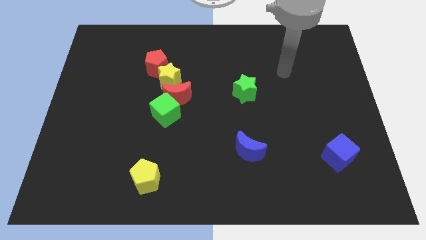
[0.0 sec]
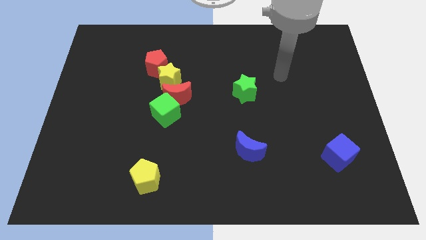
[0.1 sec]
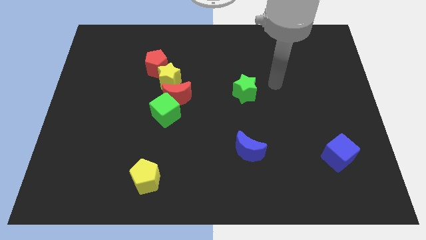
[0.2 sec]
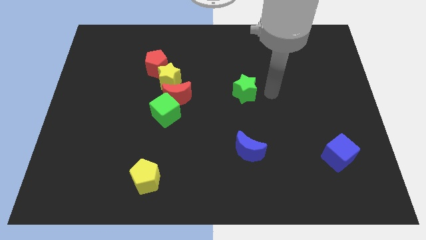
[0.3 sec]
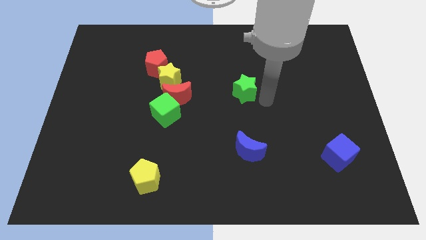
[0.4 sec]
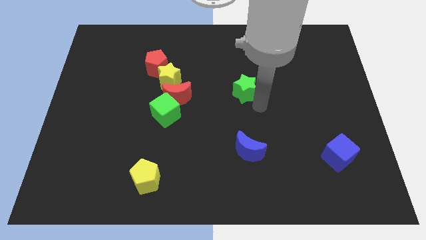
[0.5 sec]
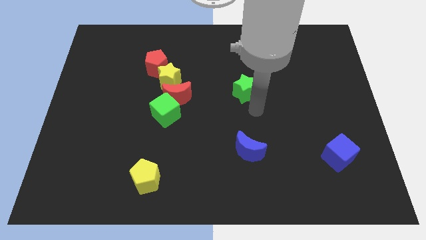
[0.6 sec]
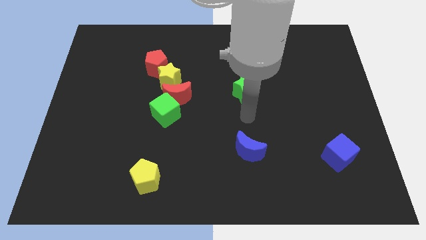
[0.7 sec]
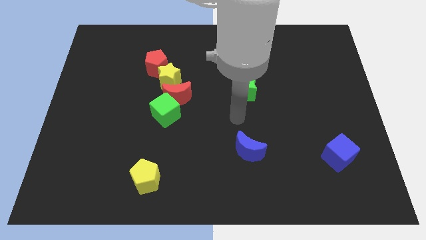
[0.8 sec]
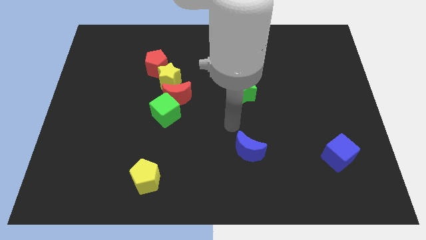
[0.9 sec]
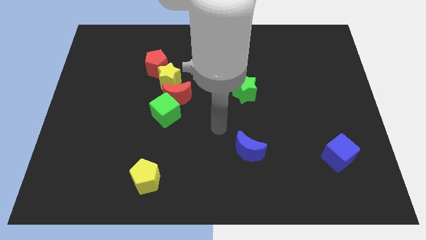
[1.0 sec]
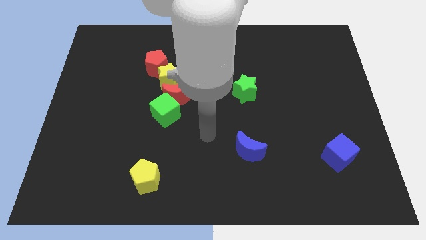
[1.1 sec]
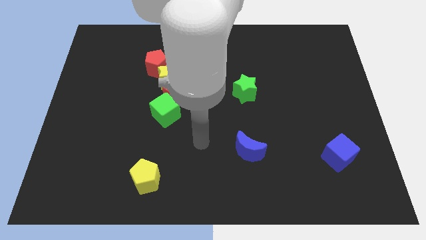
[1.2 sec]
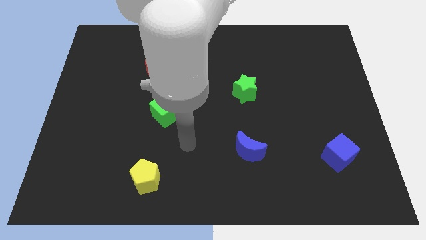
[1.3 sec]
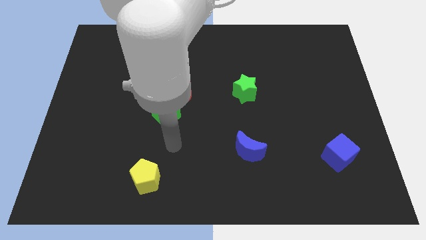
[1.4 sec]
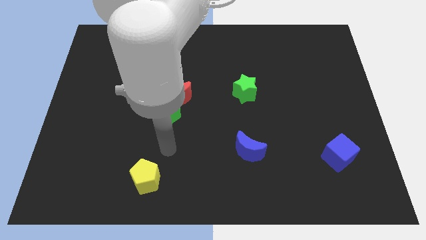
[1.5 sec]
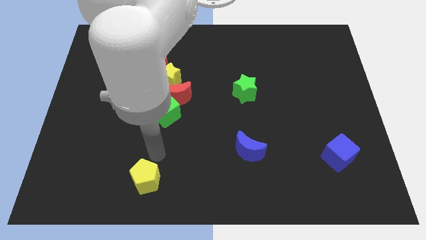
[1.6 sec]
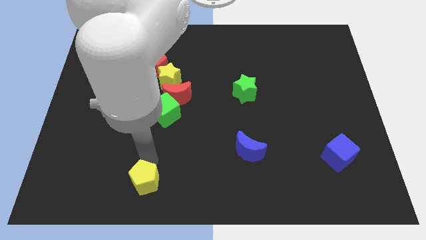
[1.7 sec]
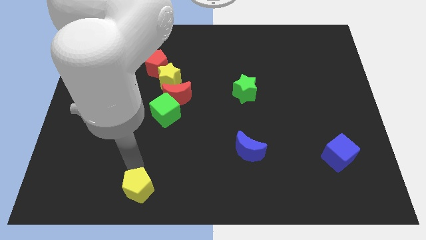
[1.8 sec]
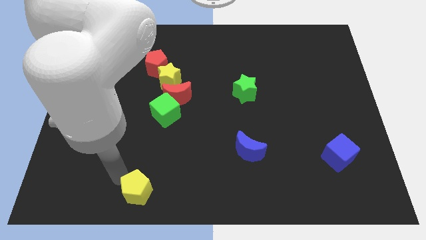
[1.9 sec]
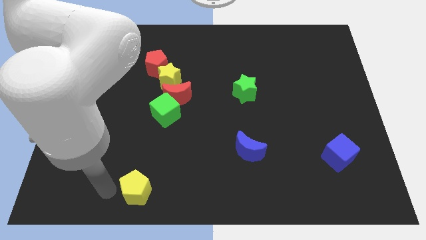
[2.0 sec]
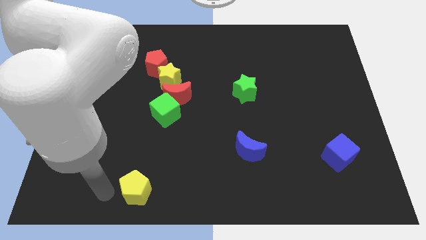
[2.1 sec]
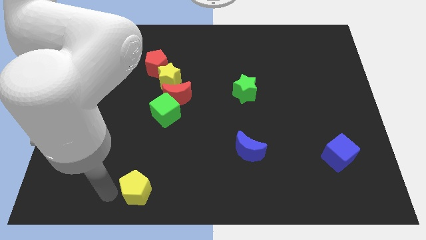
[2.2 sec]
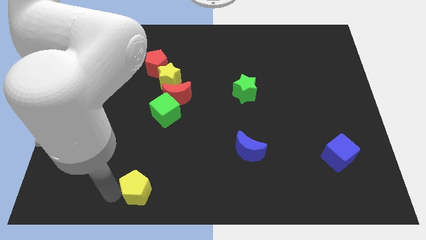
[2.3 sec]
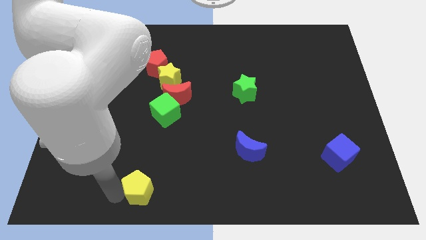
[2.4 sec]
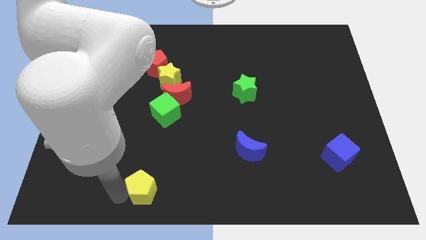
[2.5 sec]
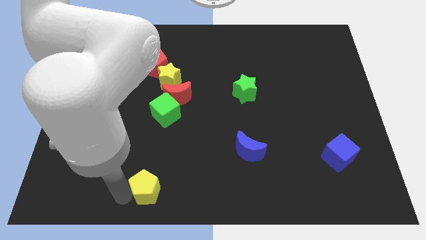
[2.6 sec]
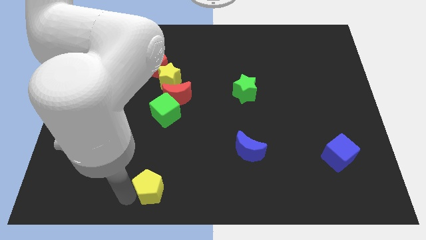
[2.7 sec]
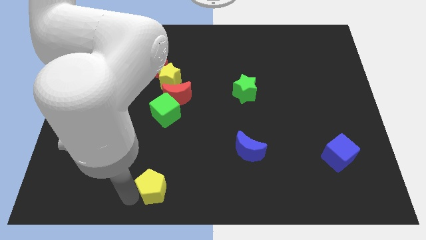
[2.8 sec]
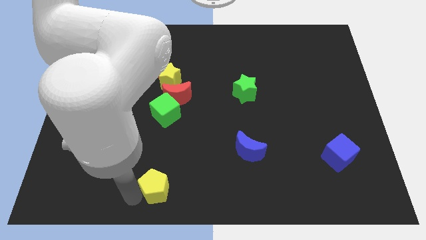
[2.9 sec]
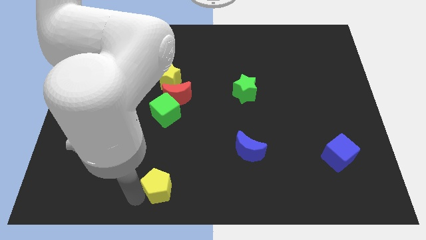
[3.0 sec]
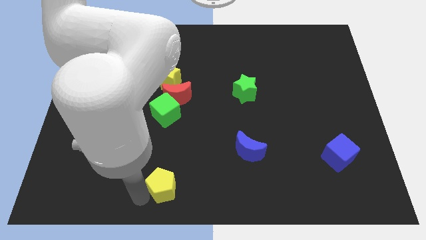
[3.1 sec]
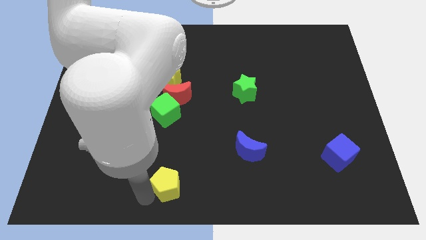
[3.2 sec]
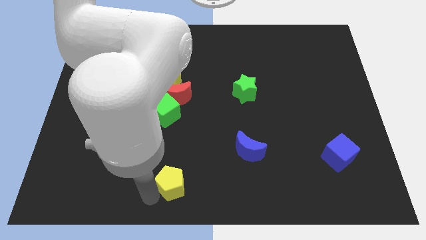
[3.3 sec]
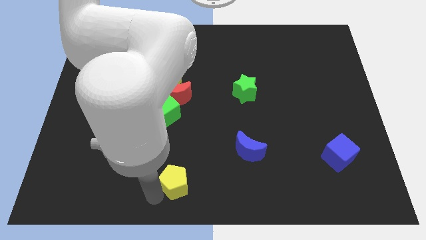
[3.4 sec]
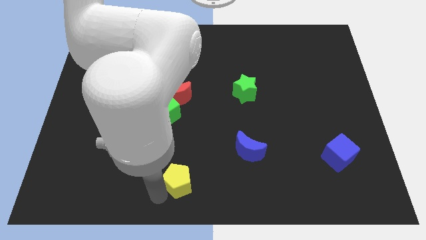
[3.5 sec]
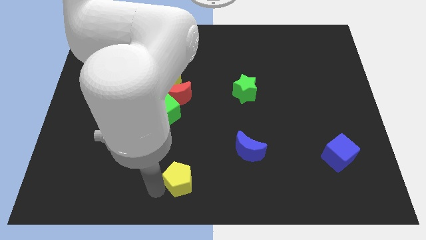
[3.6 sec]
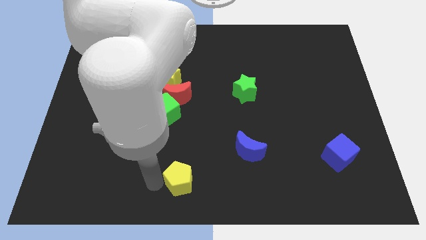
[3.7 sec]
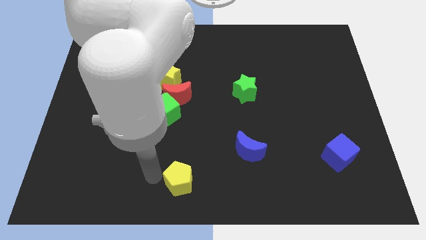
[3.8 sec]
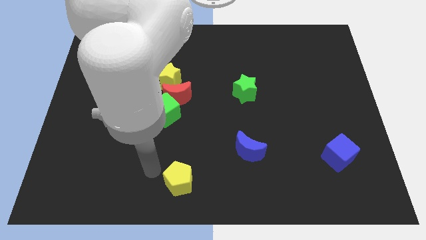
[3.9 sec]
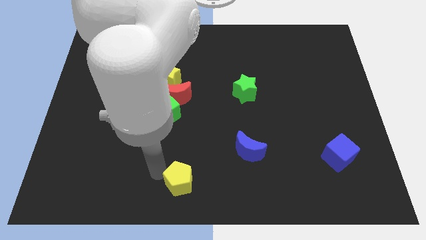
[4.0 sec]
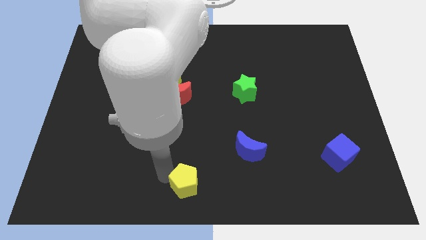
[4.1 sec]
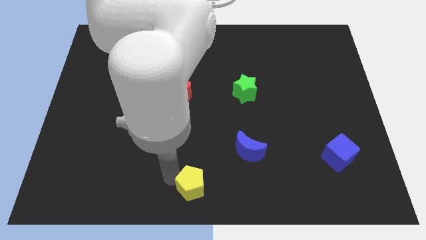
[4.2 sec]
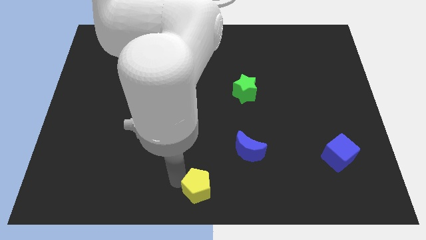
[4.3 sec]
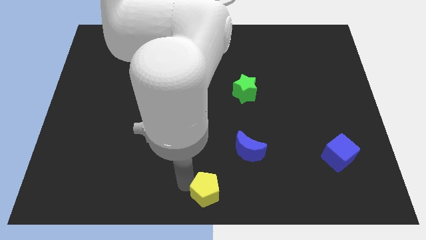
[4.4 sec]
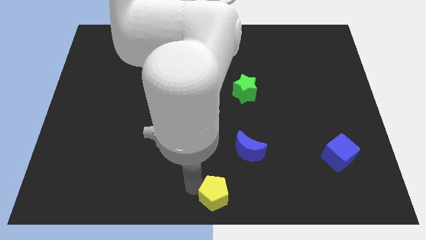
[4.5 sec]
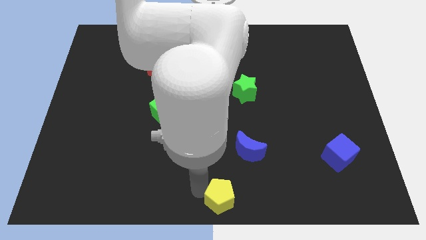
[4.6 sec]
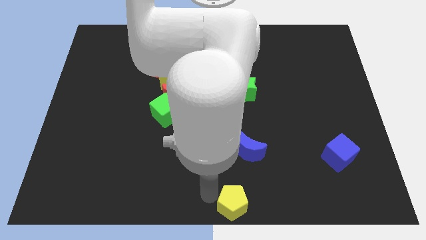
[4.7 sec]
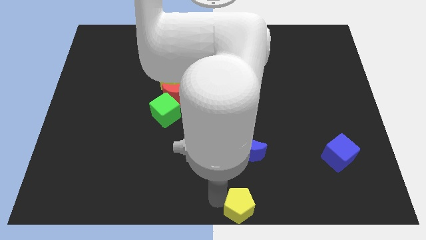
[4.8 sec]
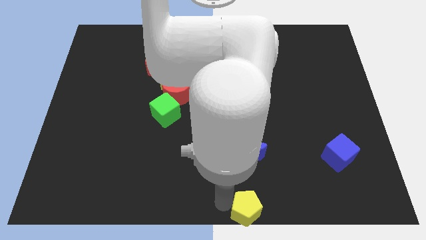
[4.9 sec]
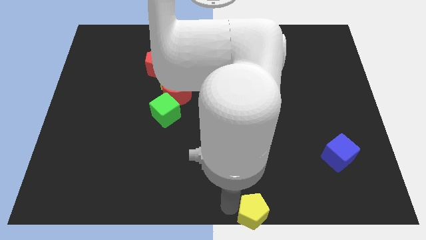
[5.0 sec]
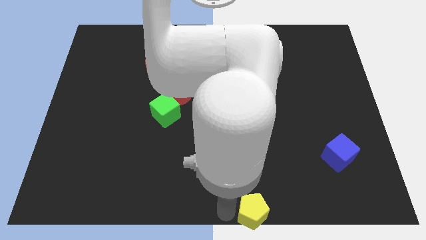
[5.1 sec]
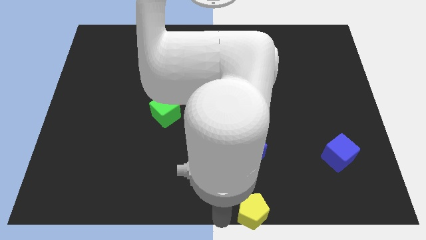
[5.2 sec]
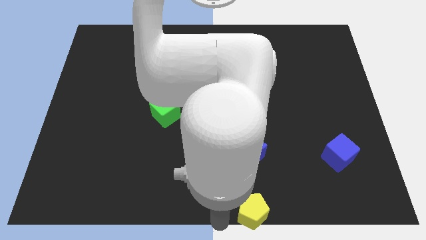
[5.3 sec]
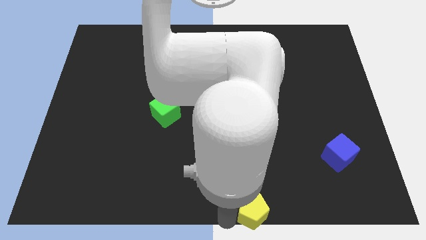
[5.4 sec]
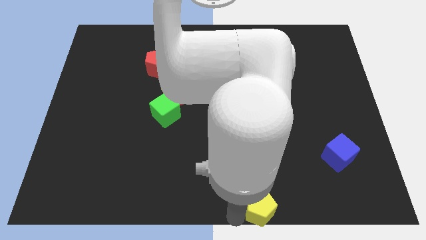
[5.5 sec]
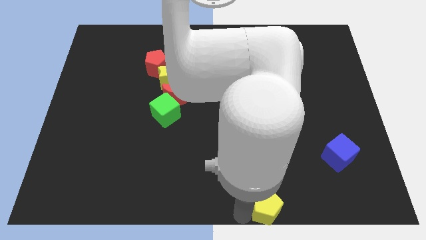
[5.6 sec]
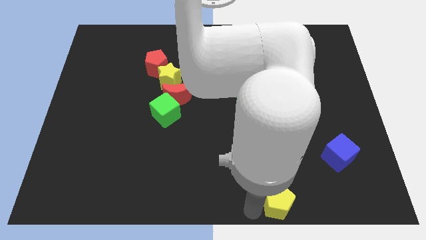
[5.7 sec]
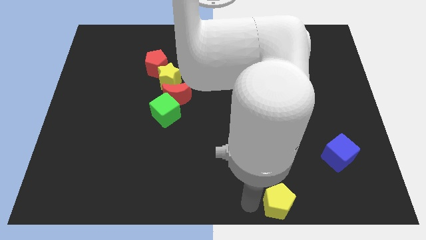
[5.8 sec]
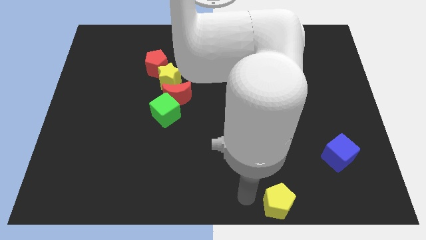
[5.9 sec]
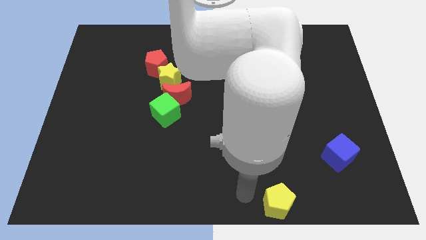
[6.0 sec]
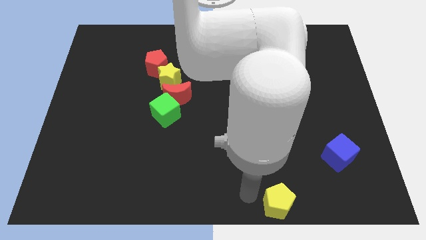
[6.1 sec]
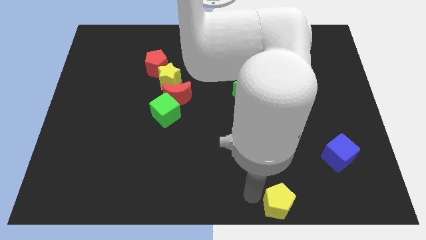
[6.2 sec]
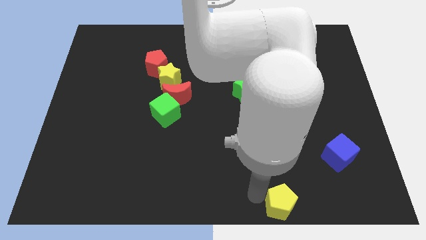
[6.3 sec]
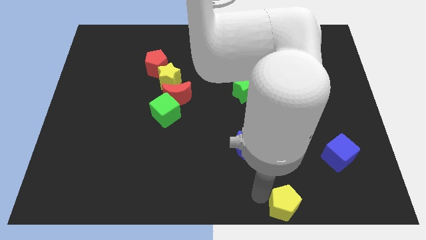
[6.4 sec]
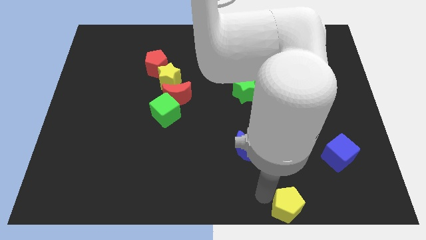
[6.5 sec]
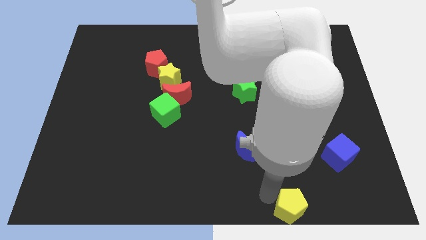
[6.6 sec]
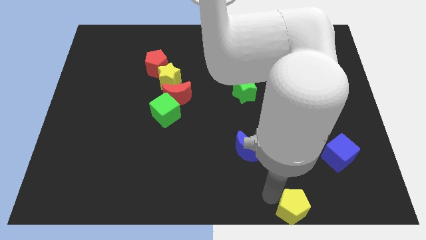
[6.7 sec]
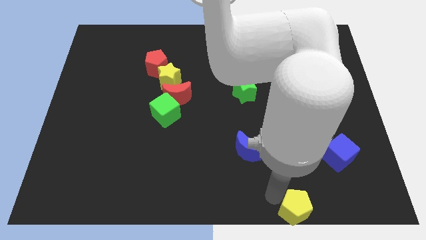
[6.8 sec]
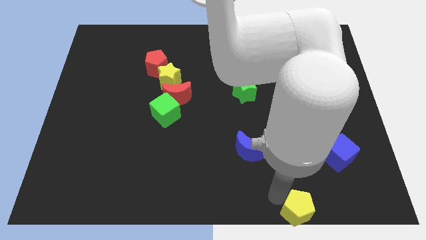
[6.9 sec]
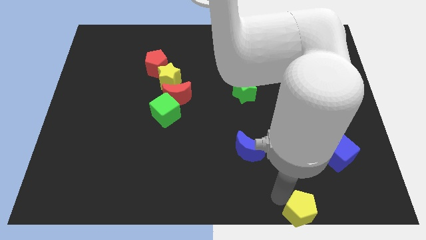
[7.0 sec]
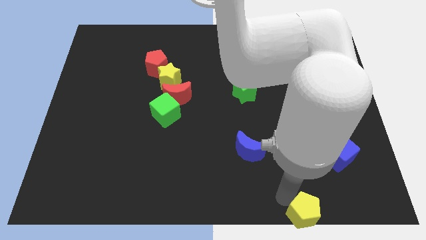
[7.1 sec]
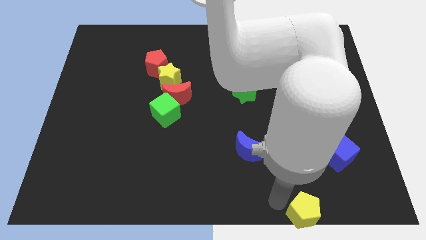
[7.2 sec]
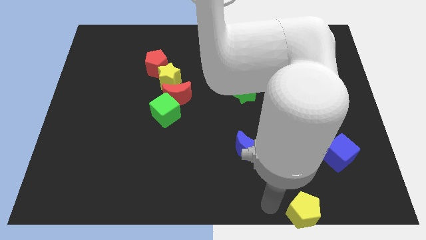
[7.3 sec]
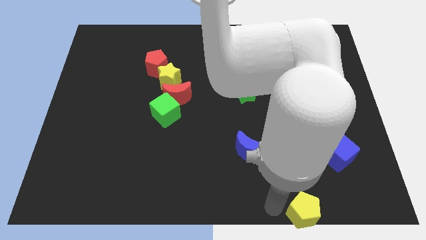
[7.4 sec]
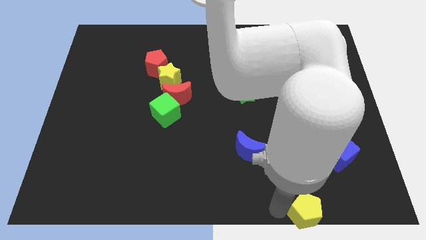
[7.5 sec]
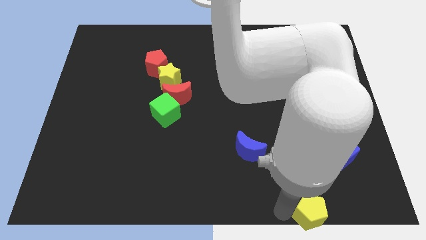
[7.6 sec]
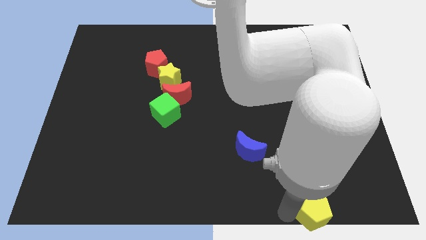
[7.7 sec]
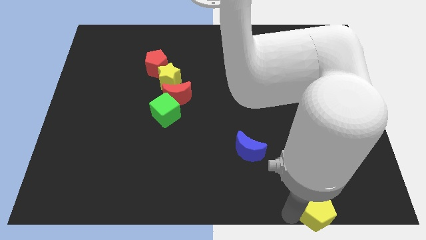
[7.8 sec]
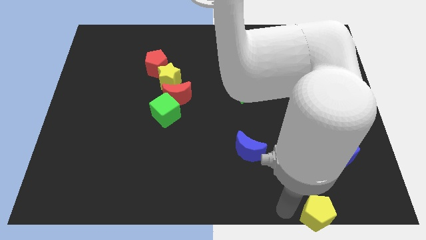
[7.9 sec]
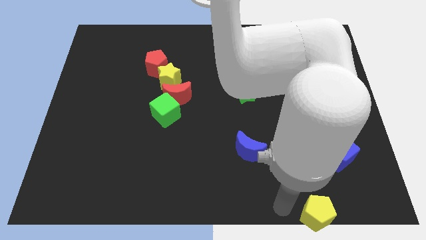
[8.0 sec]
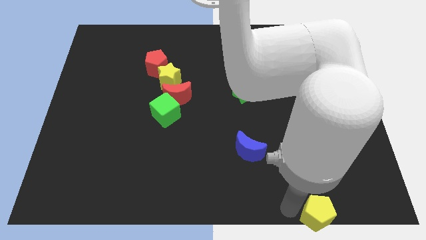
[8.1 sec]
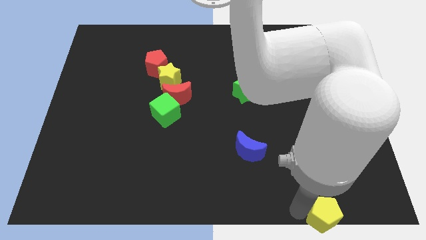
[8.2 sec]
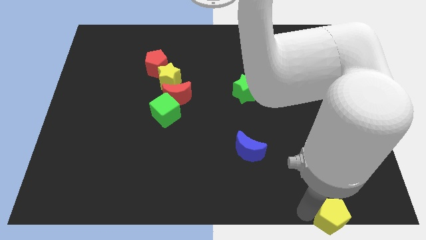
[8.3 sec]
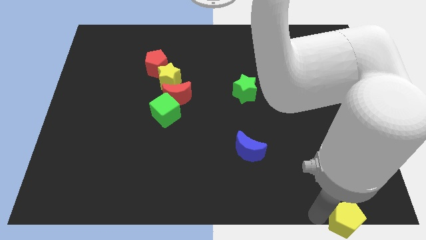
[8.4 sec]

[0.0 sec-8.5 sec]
move the yellow pentagon to the bottom right of the board
